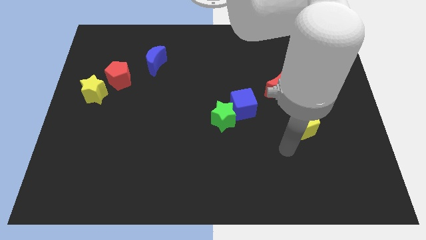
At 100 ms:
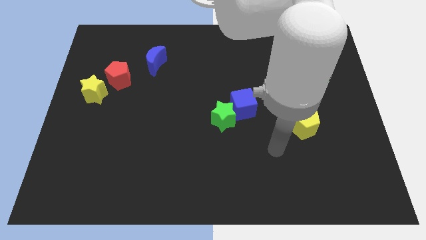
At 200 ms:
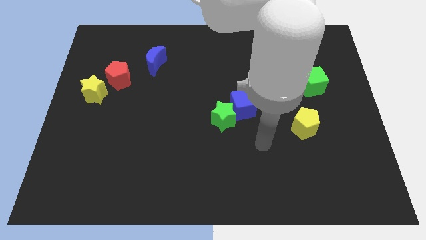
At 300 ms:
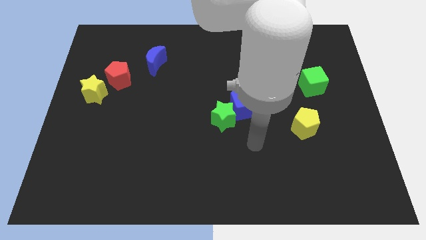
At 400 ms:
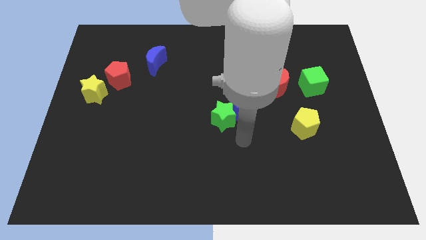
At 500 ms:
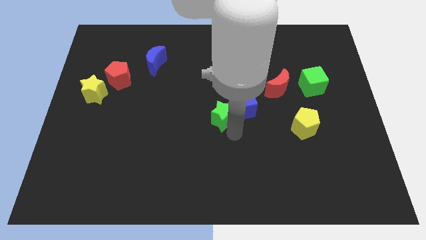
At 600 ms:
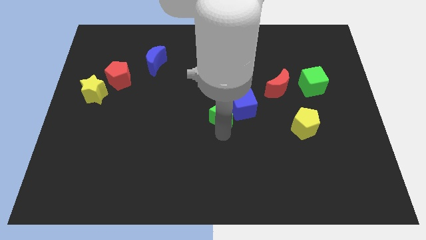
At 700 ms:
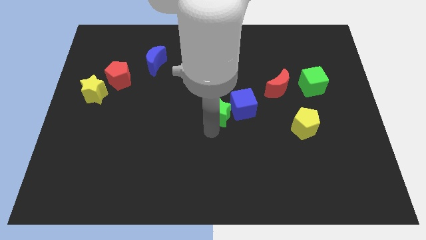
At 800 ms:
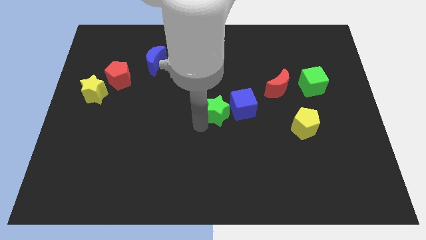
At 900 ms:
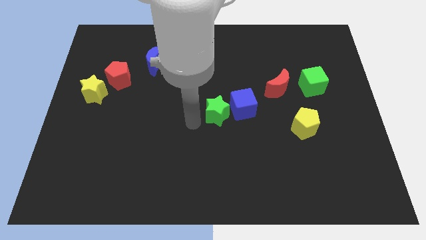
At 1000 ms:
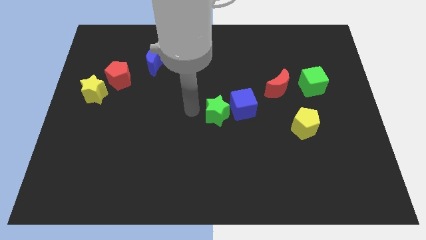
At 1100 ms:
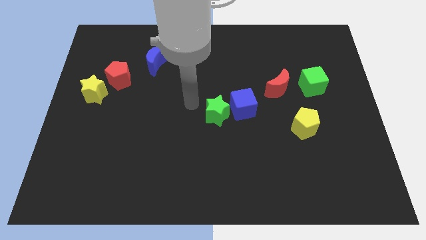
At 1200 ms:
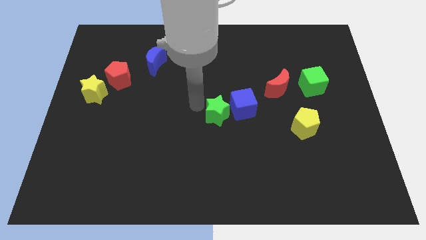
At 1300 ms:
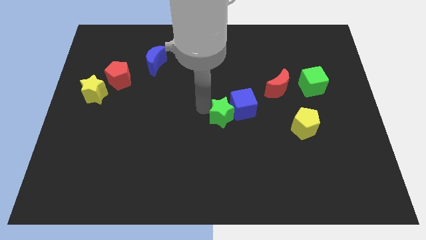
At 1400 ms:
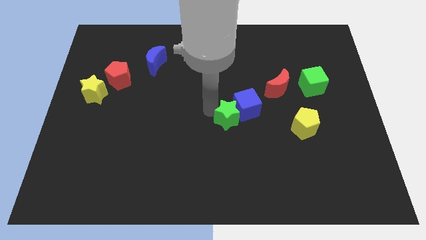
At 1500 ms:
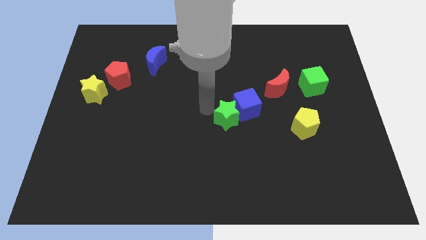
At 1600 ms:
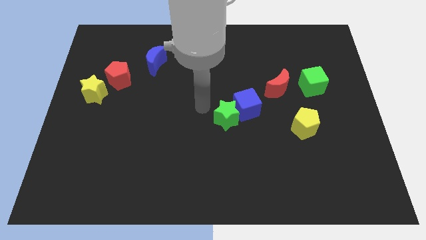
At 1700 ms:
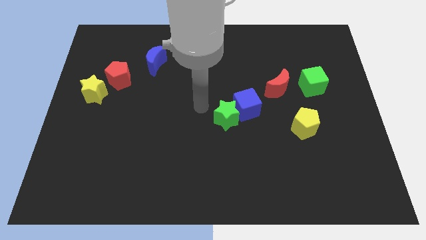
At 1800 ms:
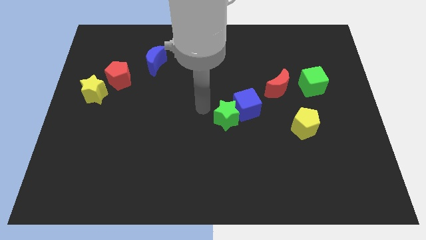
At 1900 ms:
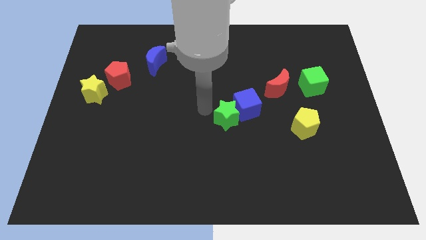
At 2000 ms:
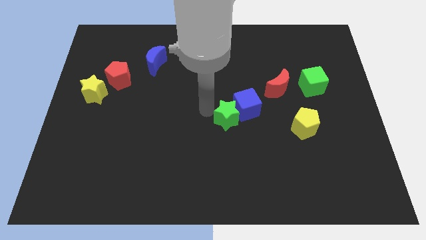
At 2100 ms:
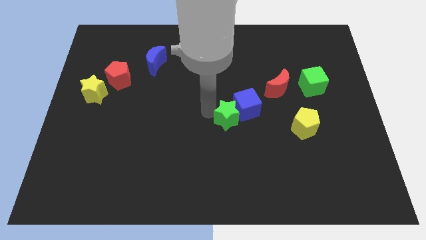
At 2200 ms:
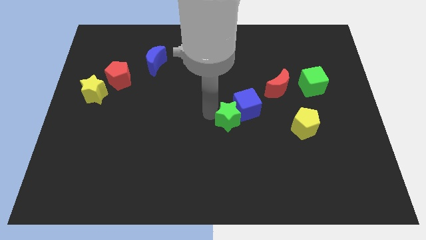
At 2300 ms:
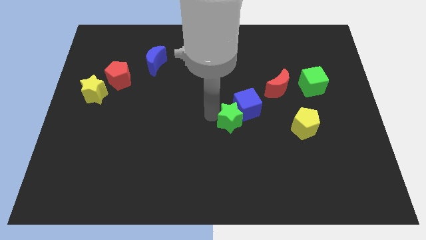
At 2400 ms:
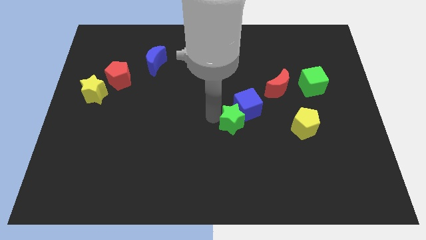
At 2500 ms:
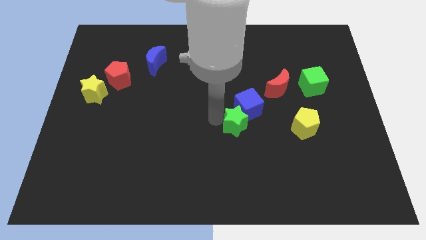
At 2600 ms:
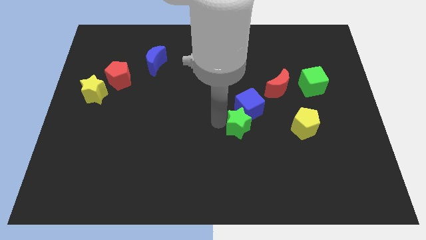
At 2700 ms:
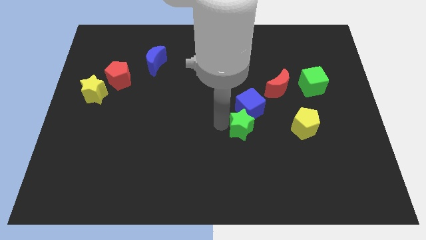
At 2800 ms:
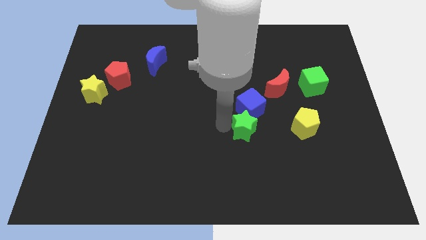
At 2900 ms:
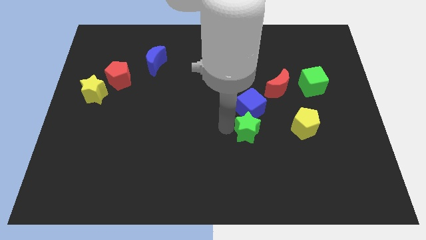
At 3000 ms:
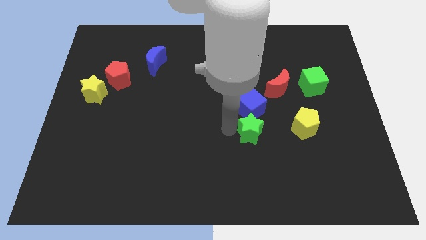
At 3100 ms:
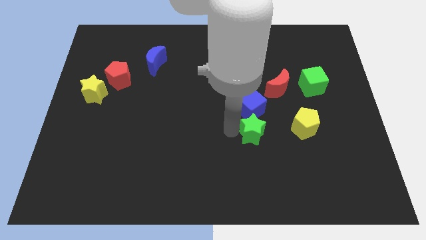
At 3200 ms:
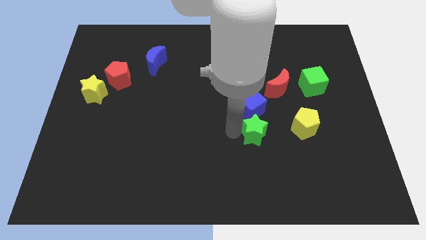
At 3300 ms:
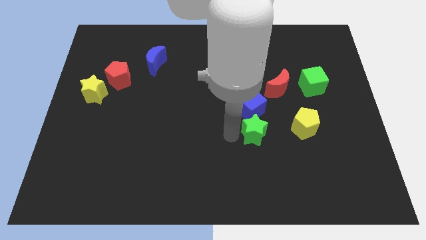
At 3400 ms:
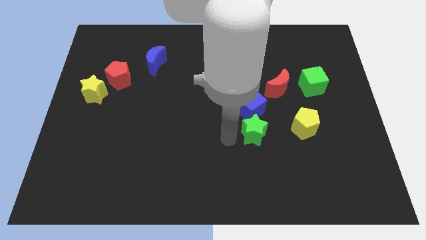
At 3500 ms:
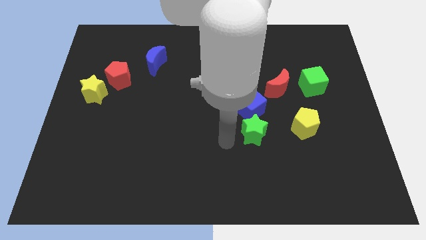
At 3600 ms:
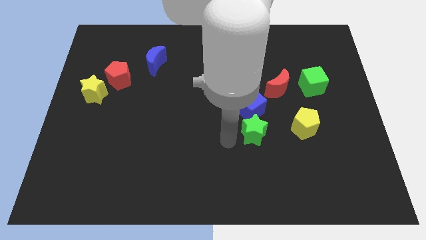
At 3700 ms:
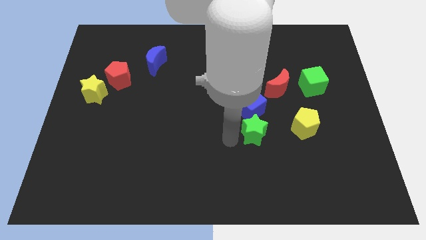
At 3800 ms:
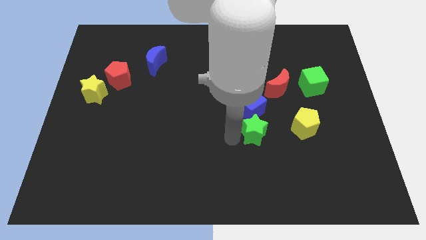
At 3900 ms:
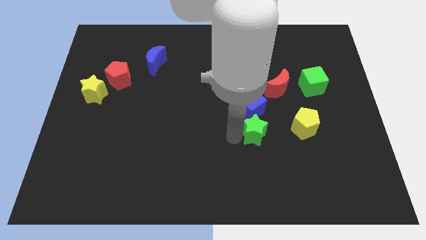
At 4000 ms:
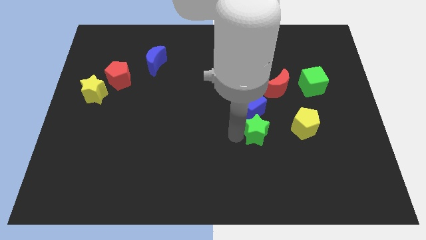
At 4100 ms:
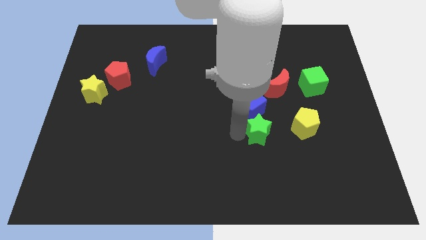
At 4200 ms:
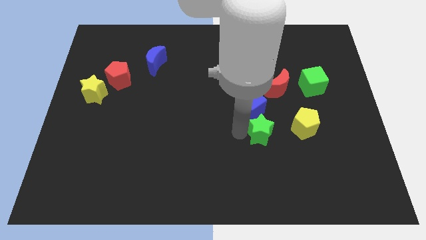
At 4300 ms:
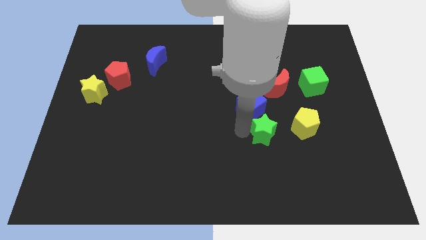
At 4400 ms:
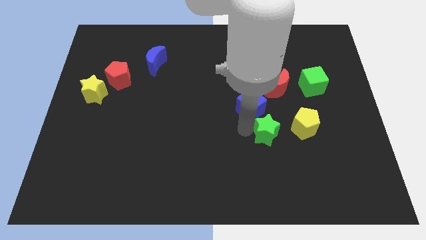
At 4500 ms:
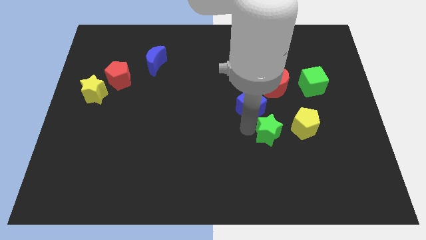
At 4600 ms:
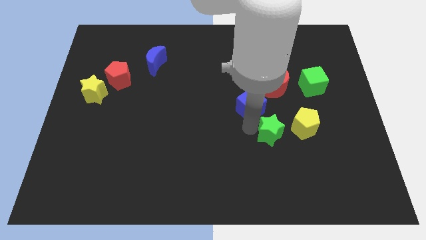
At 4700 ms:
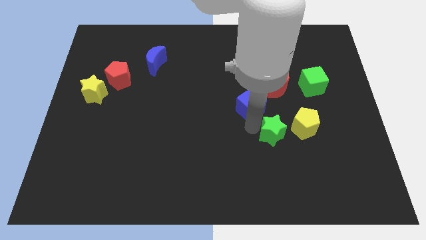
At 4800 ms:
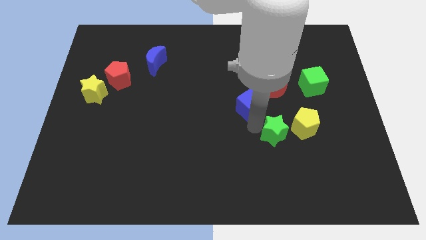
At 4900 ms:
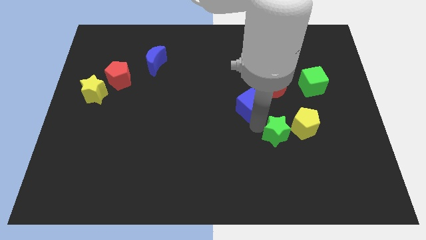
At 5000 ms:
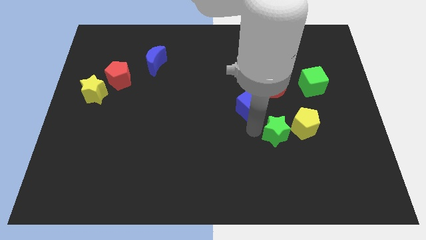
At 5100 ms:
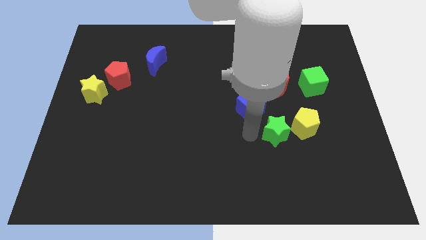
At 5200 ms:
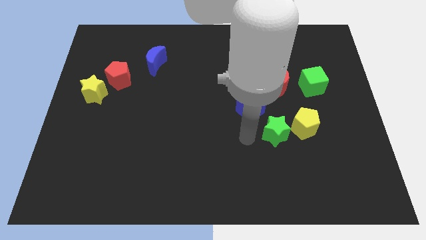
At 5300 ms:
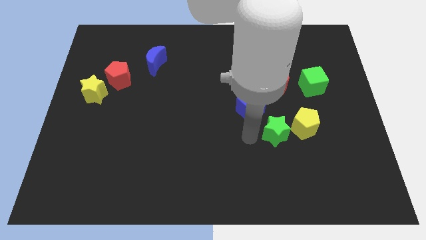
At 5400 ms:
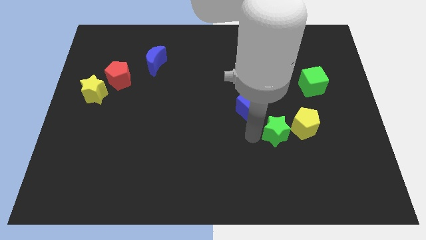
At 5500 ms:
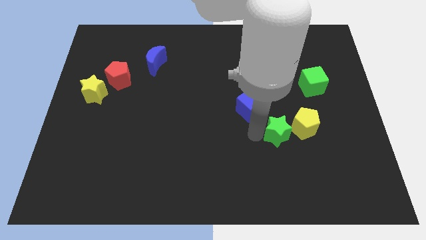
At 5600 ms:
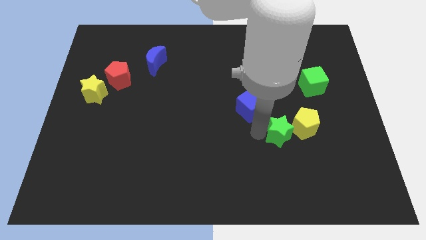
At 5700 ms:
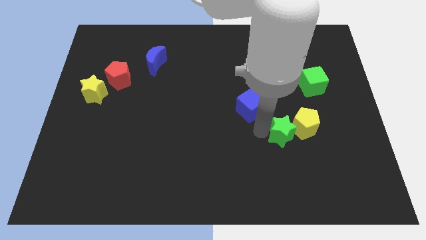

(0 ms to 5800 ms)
put the green star to the yellow pentagon

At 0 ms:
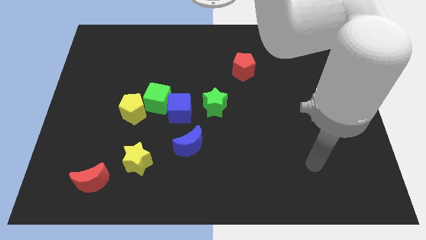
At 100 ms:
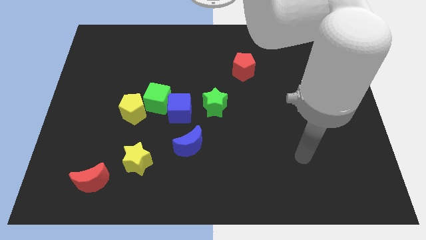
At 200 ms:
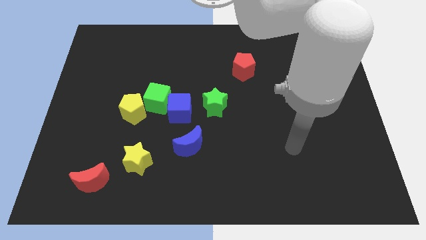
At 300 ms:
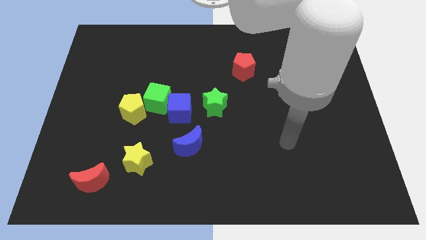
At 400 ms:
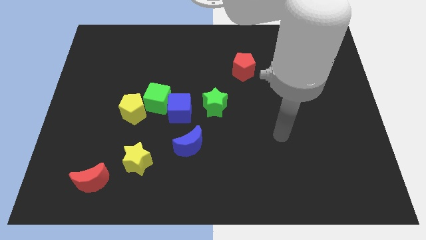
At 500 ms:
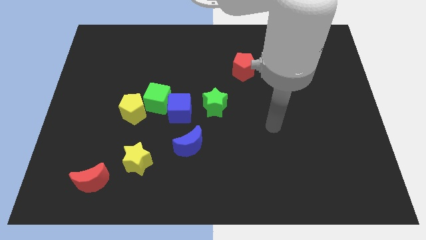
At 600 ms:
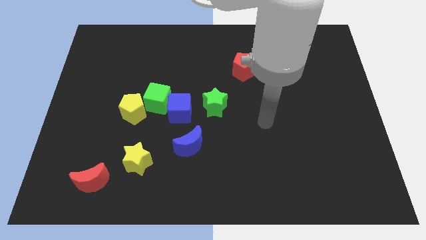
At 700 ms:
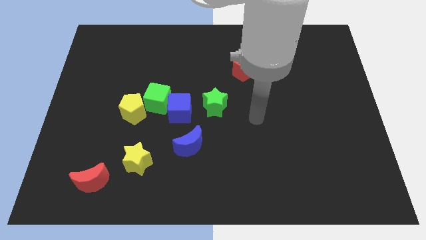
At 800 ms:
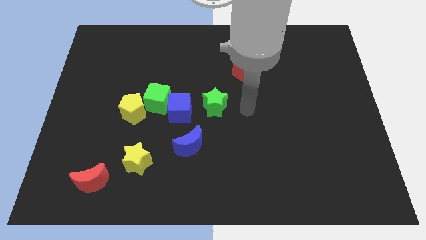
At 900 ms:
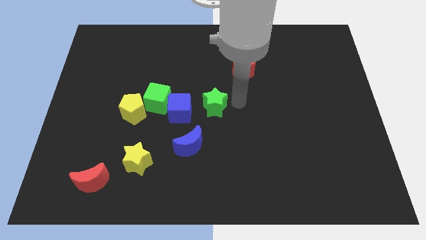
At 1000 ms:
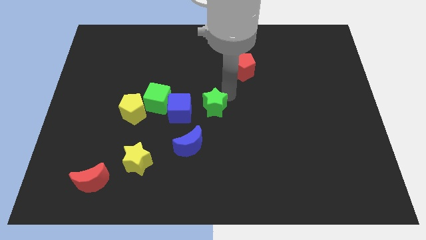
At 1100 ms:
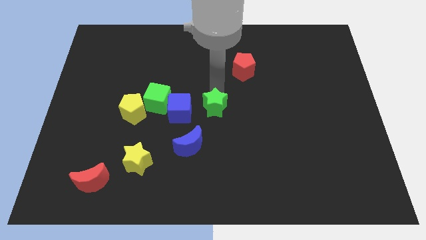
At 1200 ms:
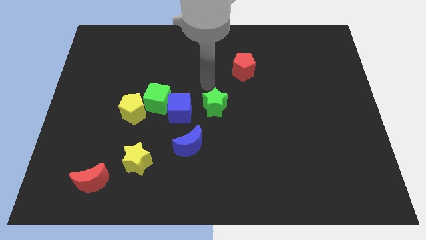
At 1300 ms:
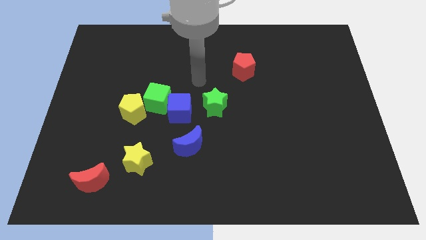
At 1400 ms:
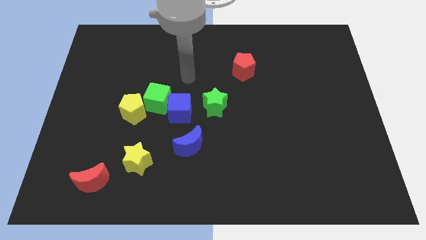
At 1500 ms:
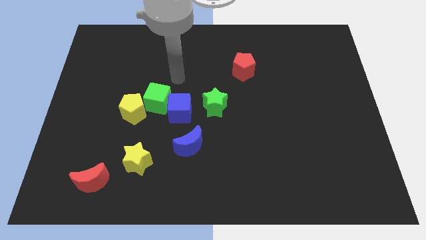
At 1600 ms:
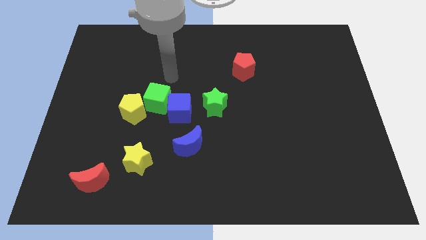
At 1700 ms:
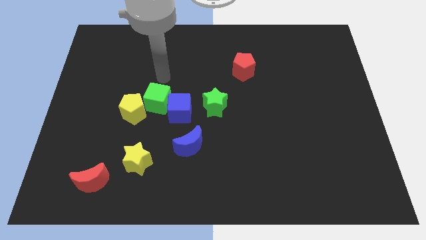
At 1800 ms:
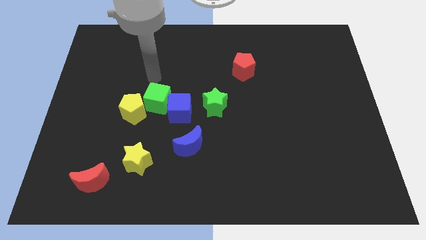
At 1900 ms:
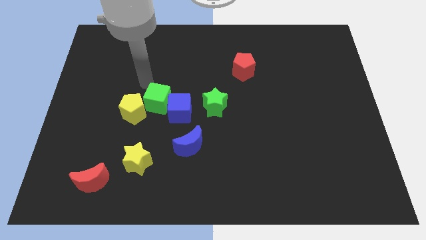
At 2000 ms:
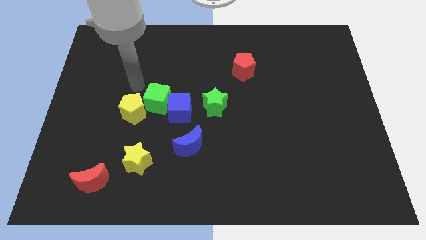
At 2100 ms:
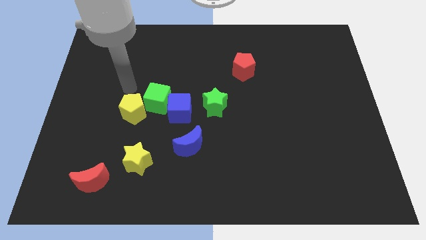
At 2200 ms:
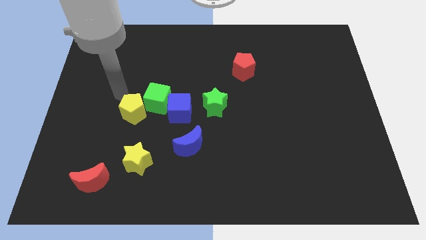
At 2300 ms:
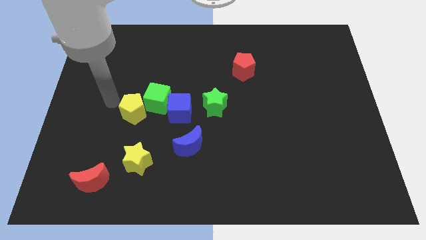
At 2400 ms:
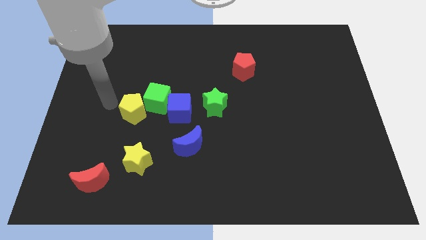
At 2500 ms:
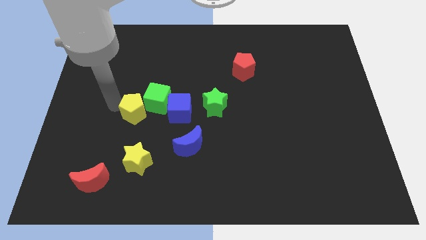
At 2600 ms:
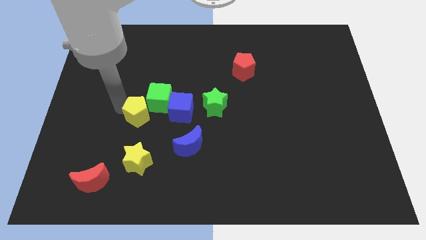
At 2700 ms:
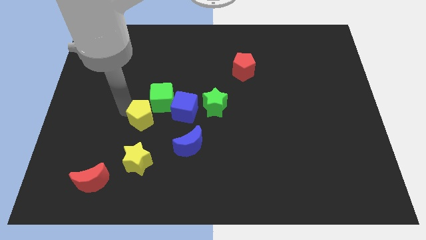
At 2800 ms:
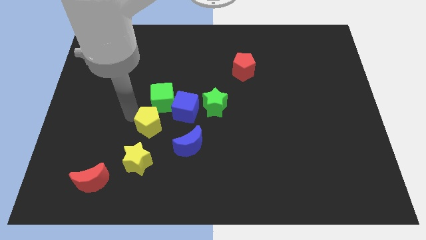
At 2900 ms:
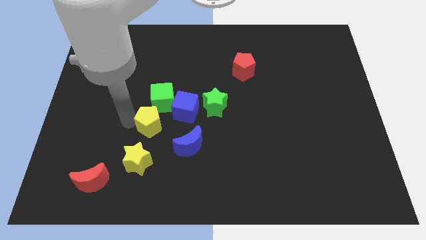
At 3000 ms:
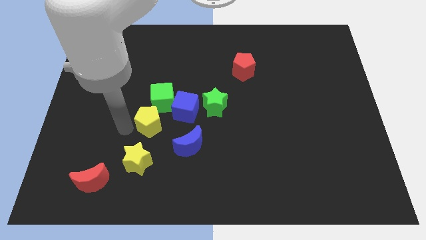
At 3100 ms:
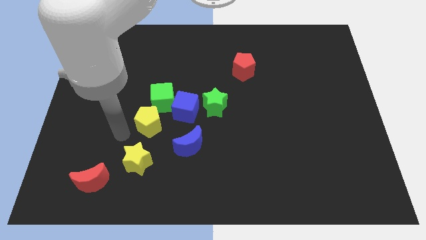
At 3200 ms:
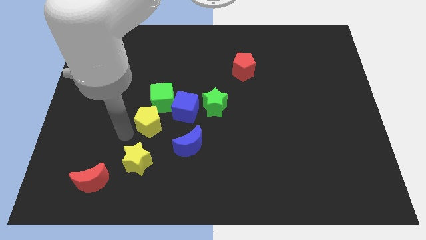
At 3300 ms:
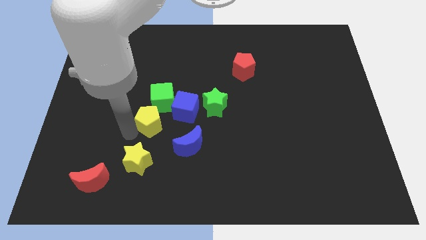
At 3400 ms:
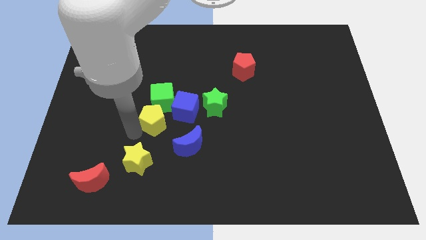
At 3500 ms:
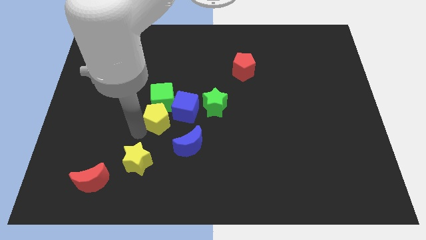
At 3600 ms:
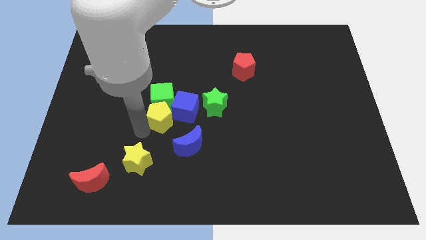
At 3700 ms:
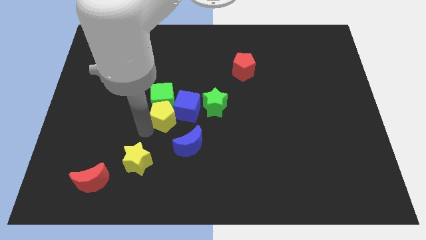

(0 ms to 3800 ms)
push the yellow pentagon next to the blue cube
